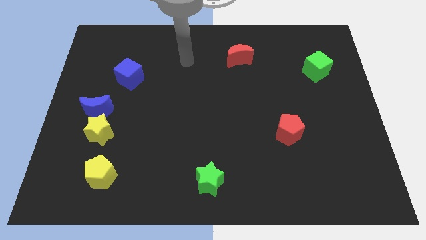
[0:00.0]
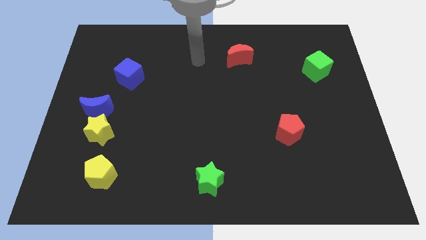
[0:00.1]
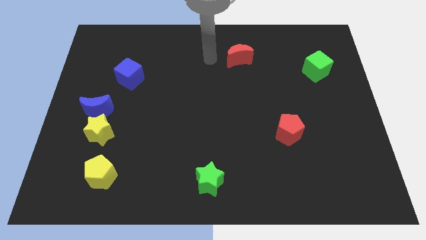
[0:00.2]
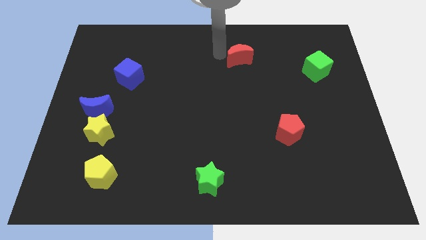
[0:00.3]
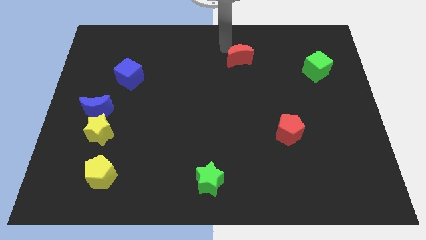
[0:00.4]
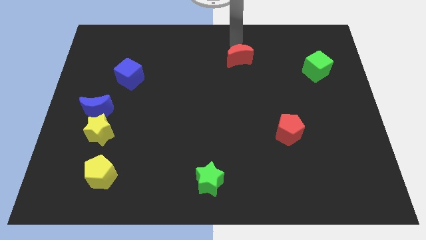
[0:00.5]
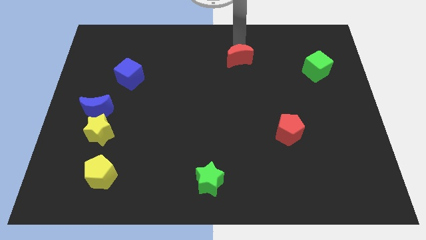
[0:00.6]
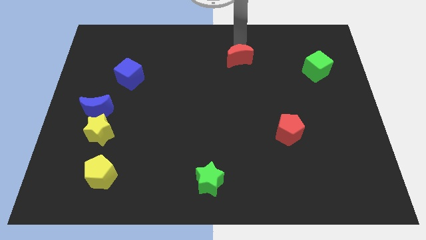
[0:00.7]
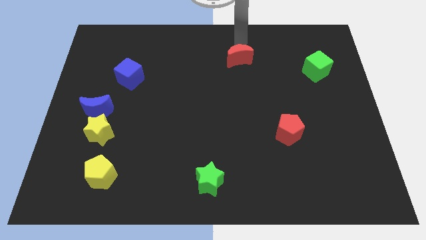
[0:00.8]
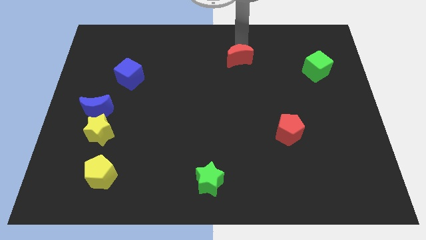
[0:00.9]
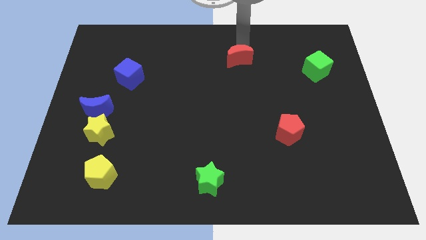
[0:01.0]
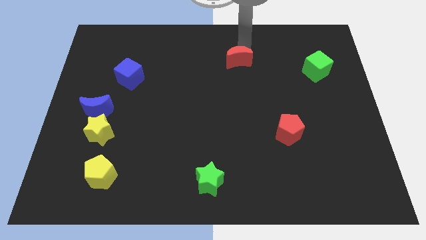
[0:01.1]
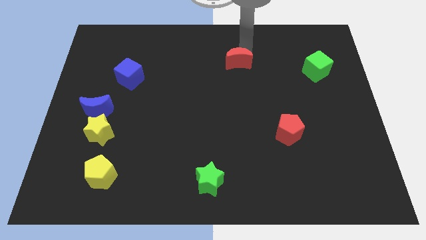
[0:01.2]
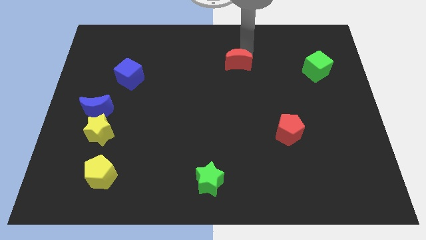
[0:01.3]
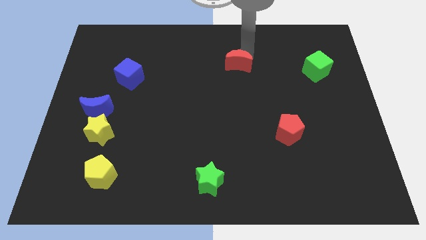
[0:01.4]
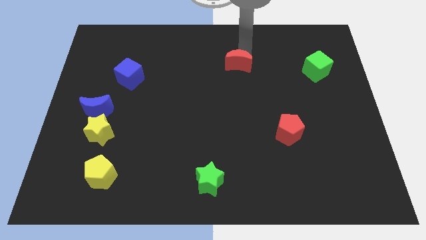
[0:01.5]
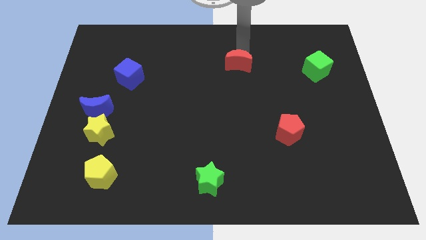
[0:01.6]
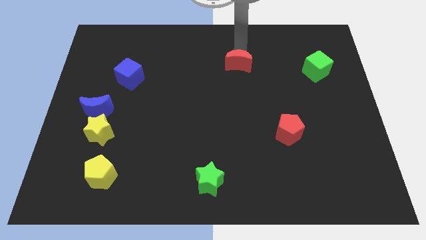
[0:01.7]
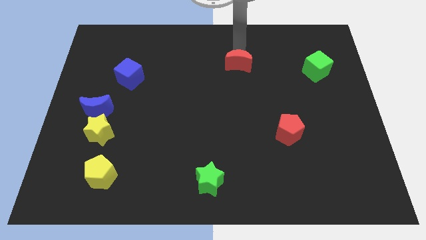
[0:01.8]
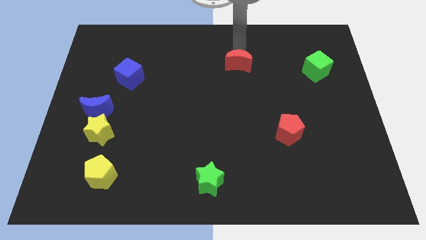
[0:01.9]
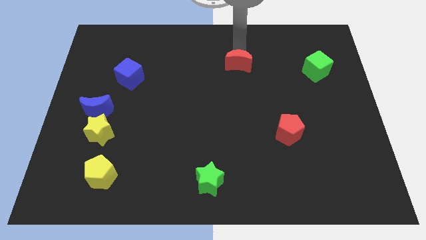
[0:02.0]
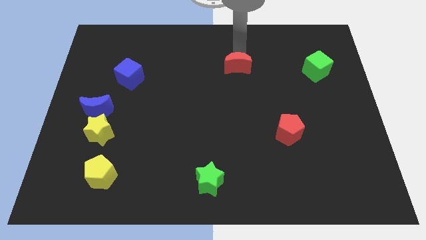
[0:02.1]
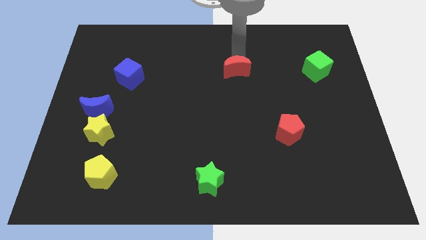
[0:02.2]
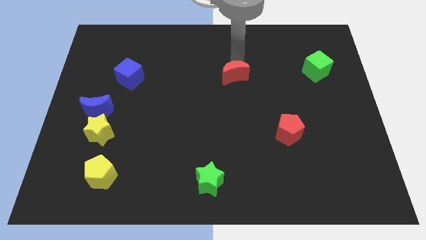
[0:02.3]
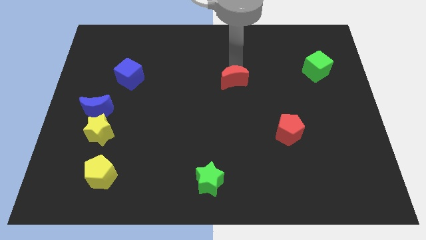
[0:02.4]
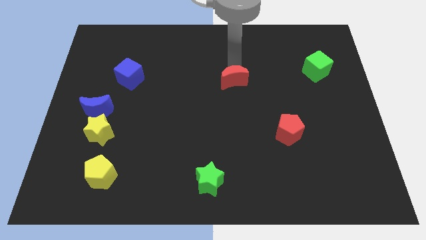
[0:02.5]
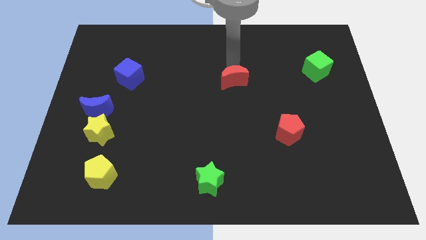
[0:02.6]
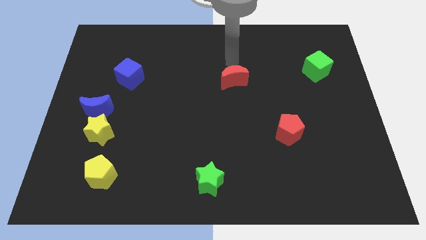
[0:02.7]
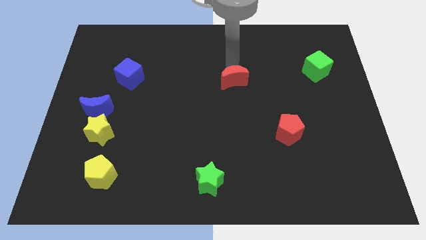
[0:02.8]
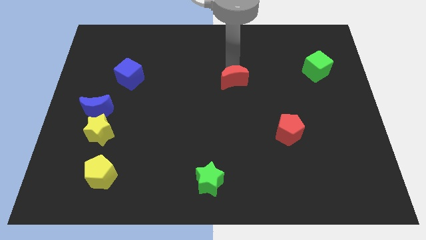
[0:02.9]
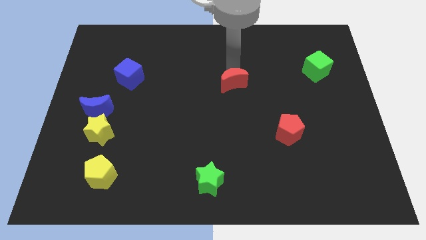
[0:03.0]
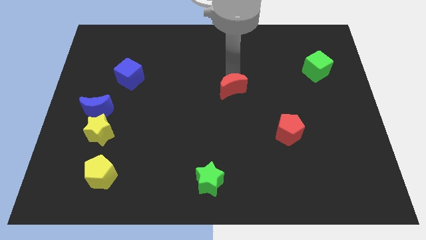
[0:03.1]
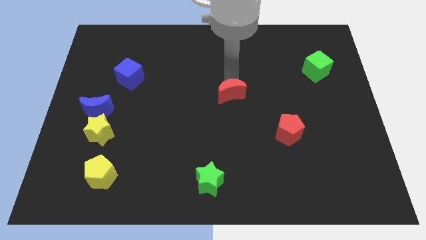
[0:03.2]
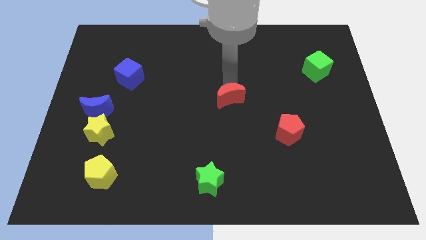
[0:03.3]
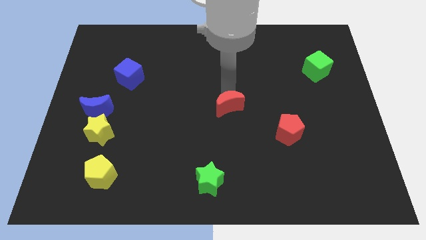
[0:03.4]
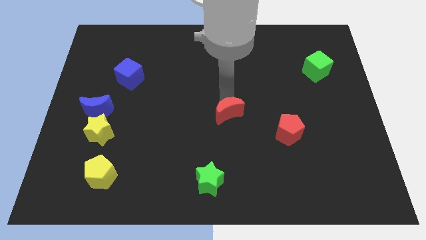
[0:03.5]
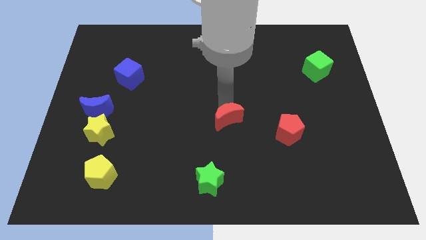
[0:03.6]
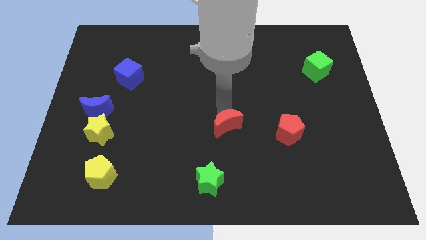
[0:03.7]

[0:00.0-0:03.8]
slide the red moon downwards

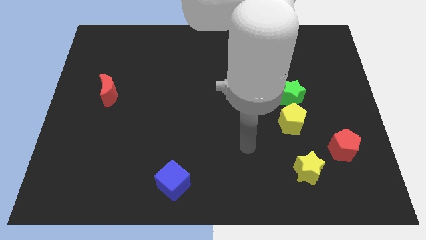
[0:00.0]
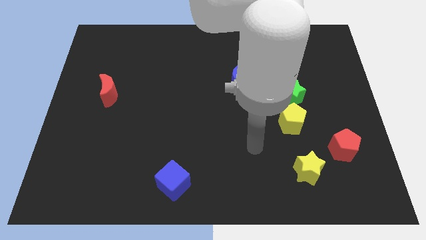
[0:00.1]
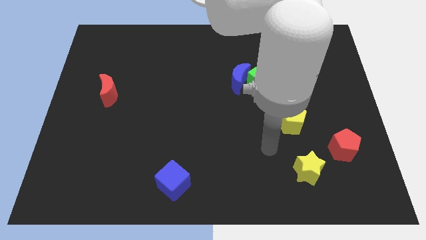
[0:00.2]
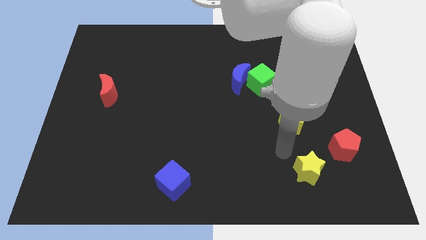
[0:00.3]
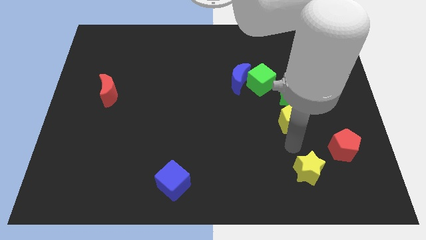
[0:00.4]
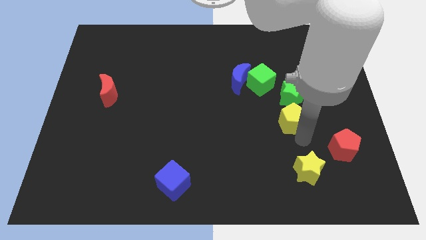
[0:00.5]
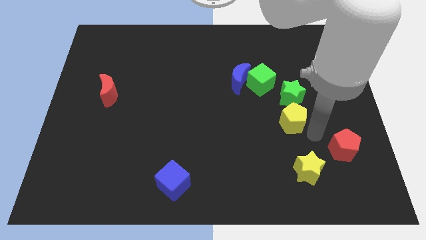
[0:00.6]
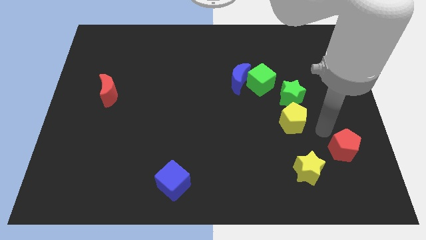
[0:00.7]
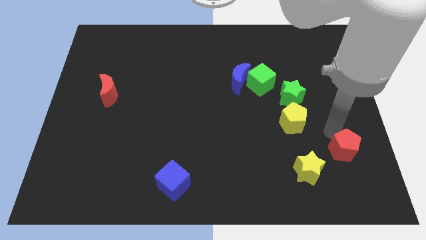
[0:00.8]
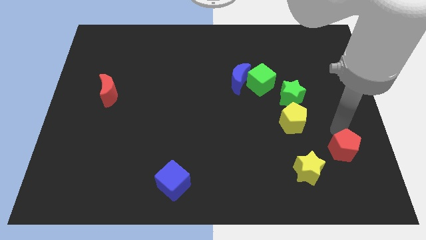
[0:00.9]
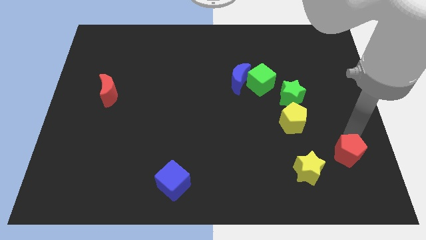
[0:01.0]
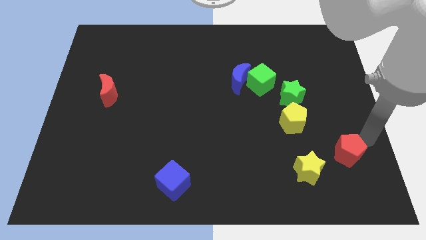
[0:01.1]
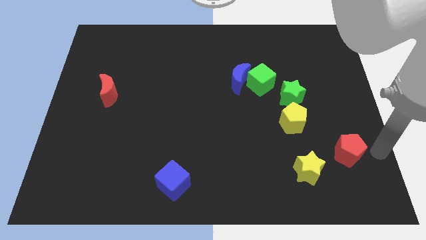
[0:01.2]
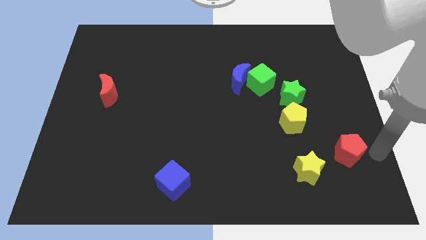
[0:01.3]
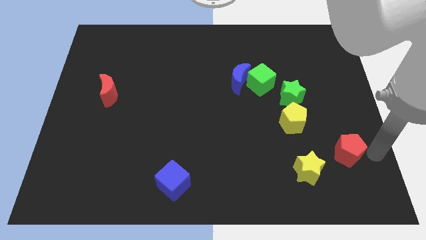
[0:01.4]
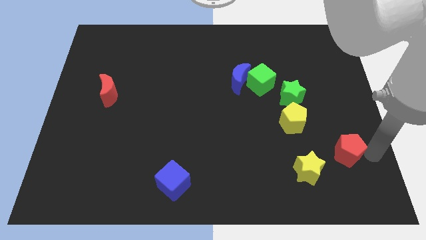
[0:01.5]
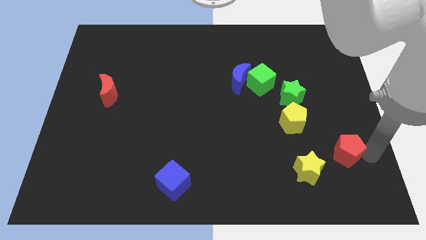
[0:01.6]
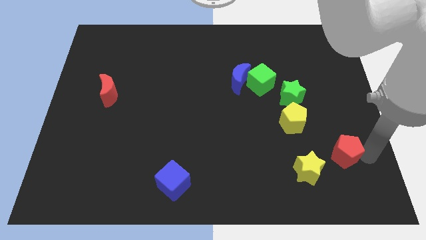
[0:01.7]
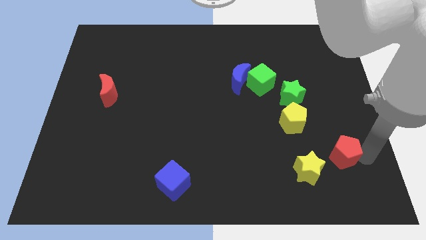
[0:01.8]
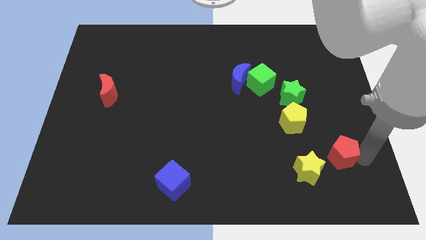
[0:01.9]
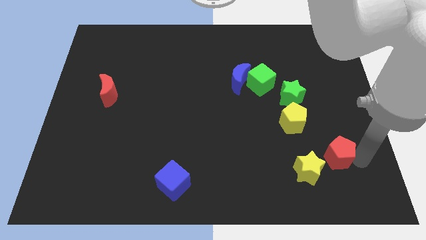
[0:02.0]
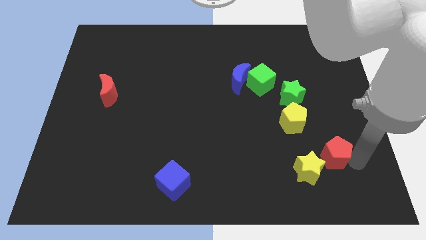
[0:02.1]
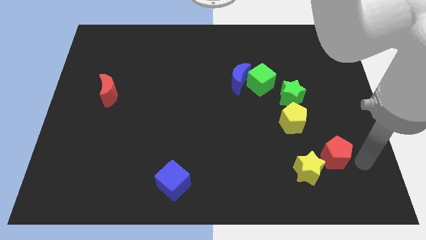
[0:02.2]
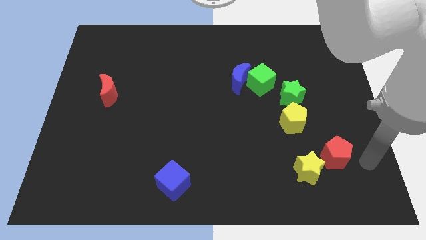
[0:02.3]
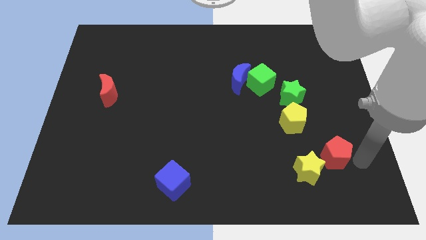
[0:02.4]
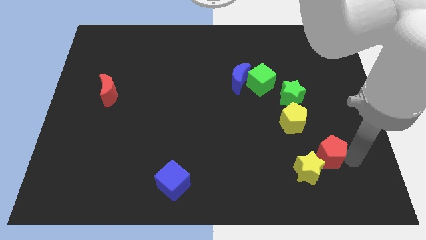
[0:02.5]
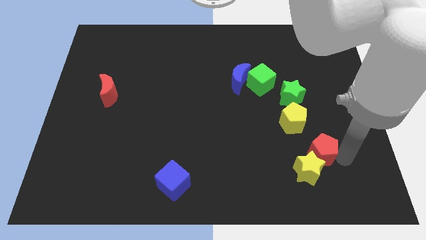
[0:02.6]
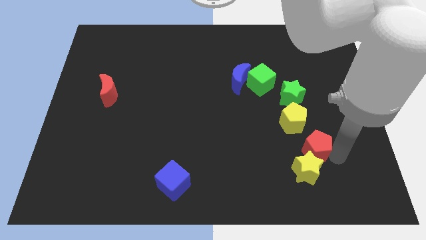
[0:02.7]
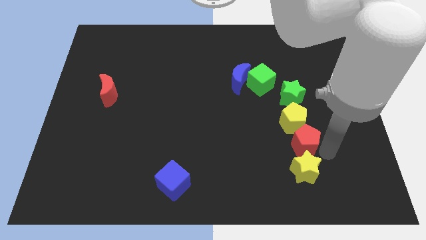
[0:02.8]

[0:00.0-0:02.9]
push the red pentagon a bit left

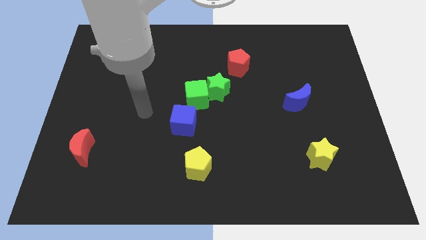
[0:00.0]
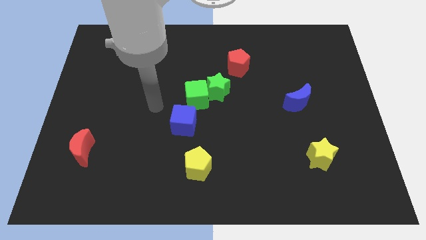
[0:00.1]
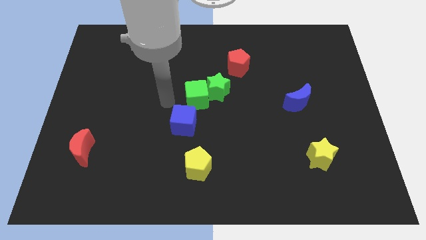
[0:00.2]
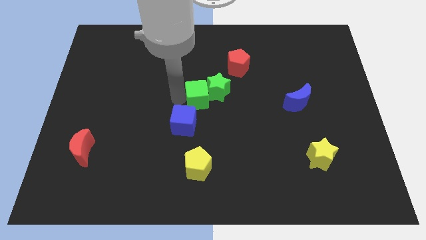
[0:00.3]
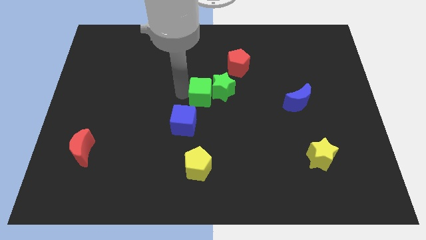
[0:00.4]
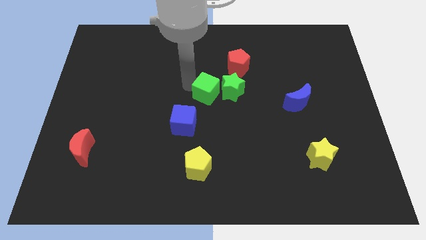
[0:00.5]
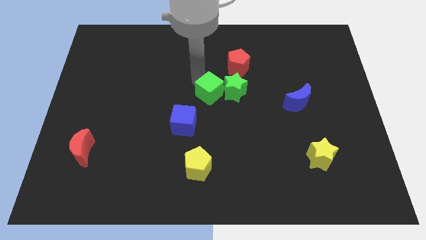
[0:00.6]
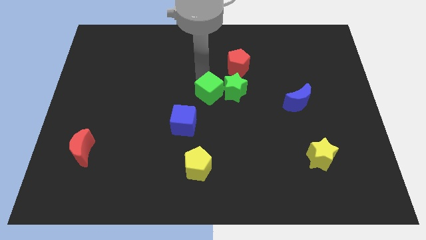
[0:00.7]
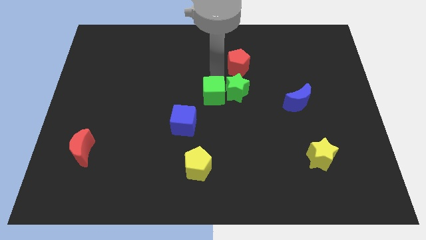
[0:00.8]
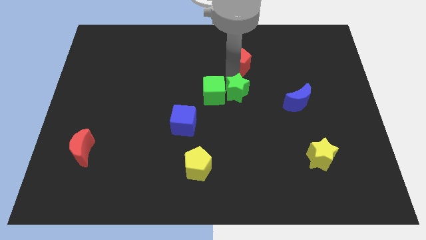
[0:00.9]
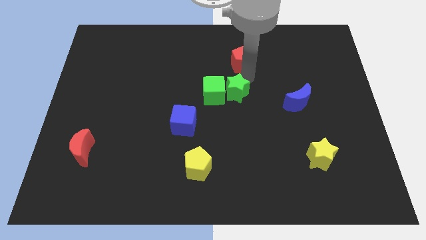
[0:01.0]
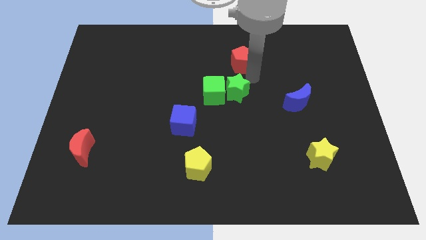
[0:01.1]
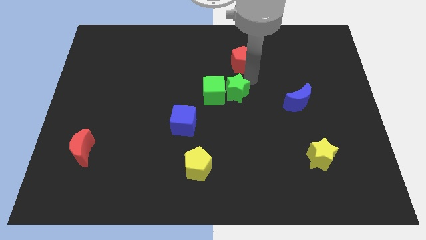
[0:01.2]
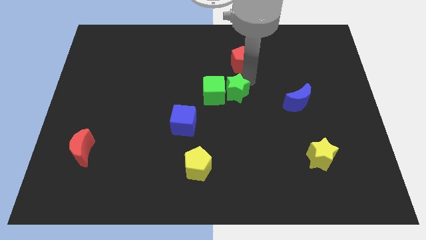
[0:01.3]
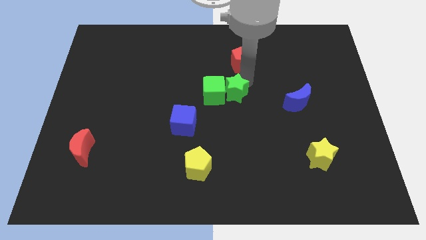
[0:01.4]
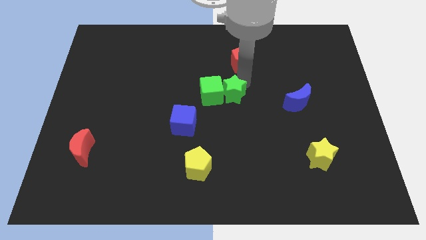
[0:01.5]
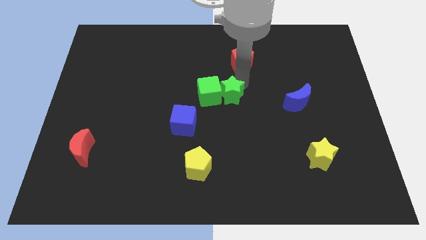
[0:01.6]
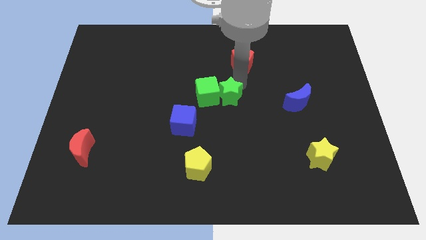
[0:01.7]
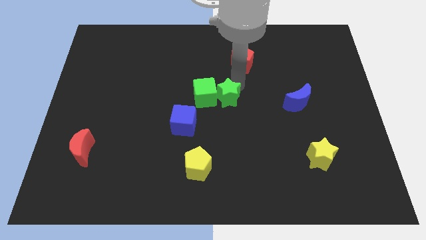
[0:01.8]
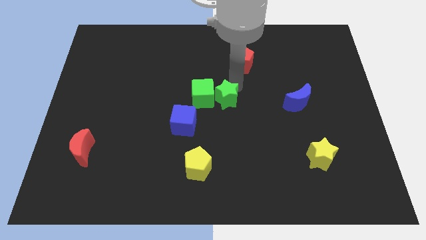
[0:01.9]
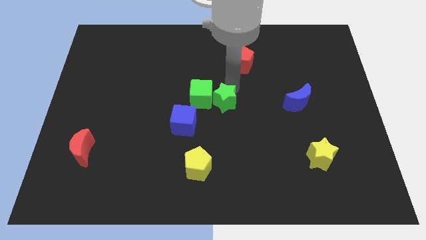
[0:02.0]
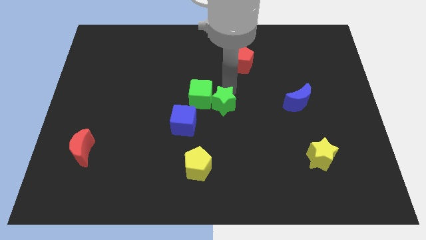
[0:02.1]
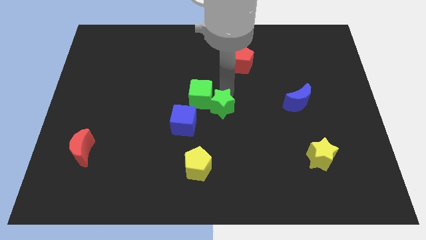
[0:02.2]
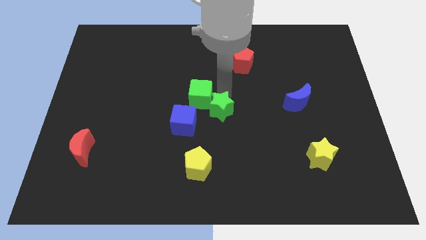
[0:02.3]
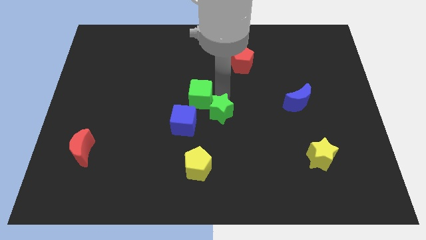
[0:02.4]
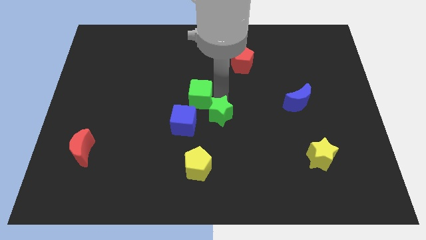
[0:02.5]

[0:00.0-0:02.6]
push the green star somewhat down
